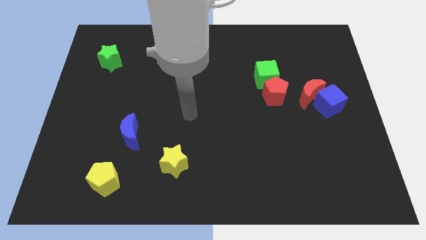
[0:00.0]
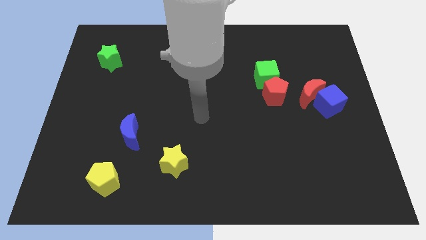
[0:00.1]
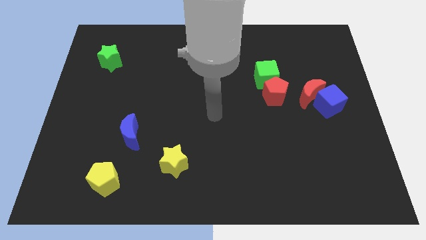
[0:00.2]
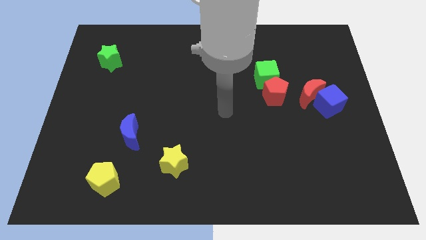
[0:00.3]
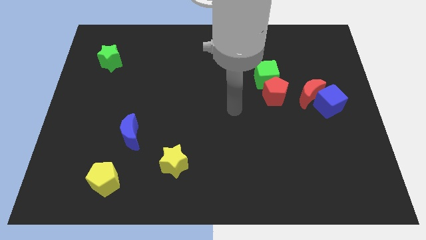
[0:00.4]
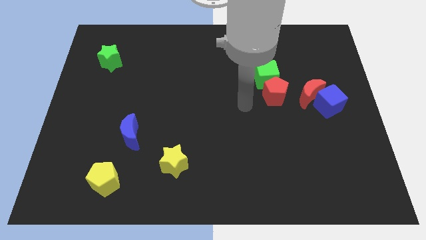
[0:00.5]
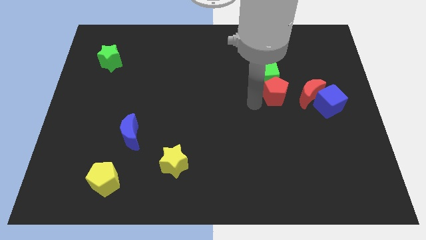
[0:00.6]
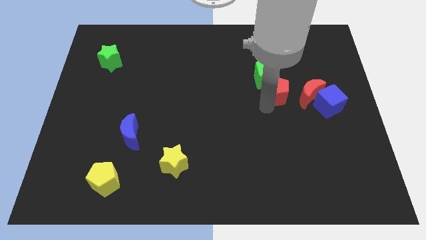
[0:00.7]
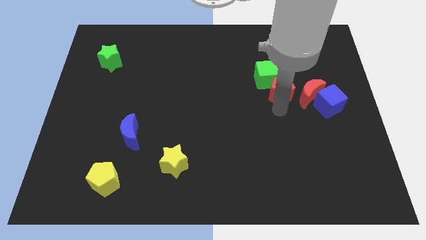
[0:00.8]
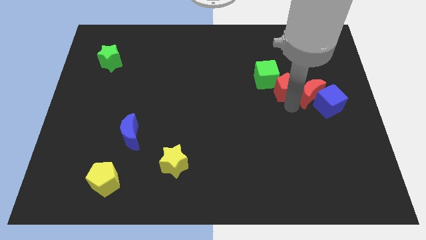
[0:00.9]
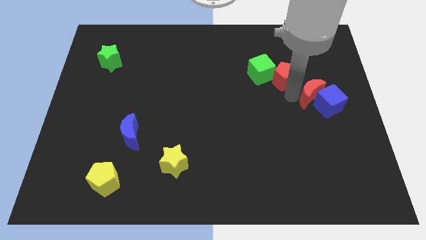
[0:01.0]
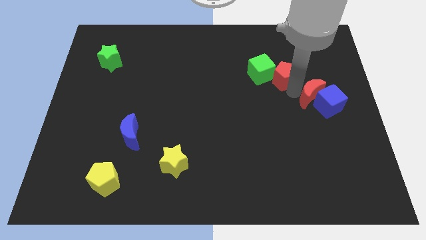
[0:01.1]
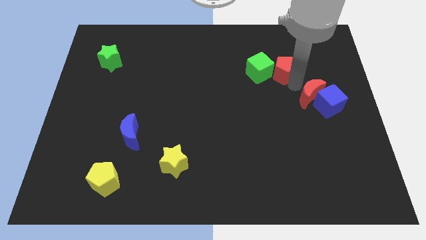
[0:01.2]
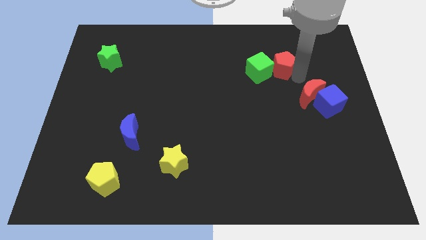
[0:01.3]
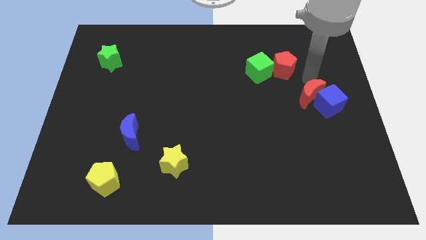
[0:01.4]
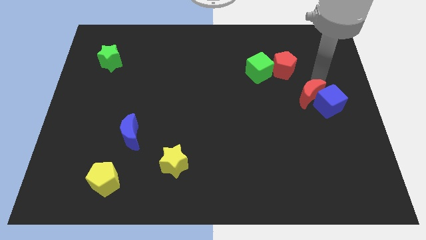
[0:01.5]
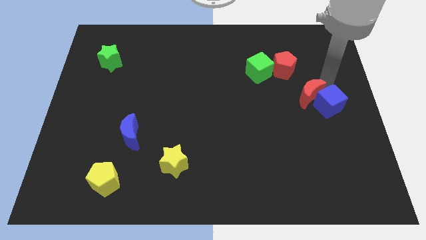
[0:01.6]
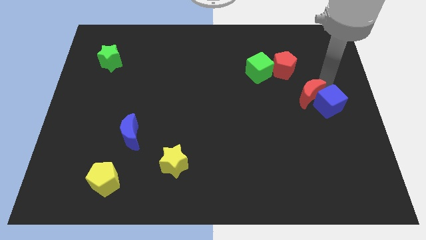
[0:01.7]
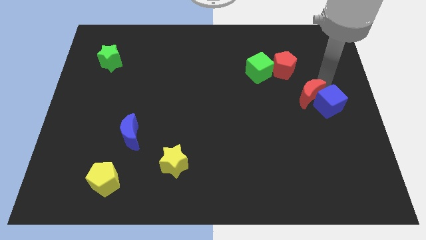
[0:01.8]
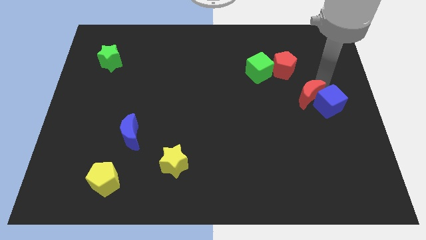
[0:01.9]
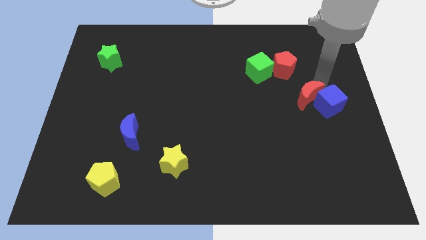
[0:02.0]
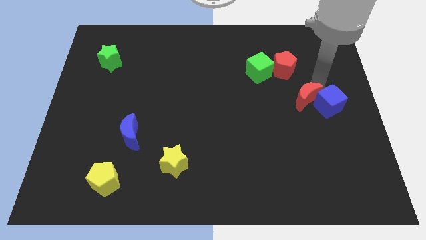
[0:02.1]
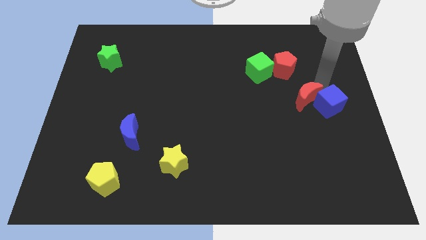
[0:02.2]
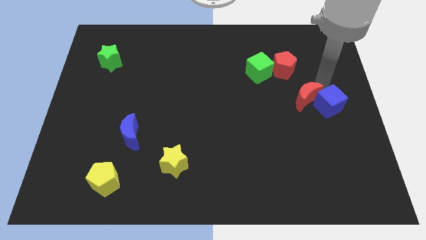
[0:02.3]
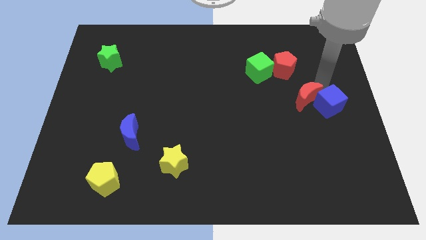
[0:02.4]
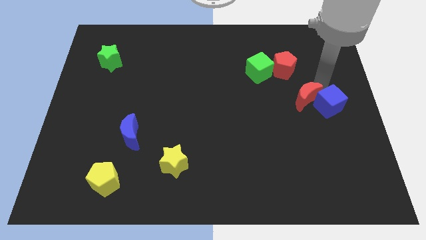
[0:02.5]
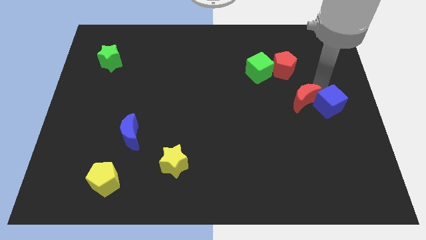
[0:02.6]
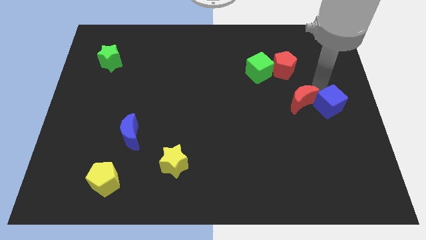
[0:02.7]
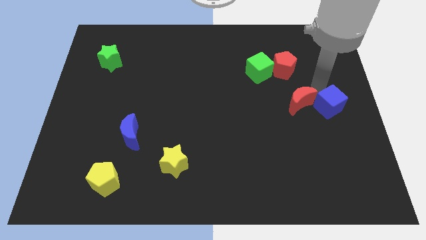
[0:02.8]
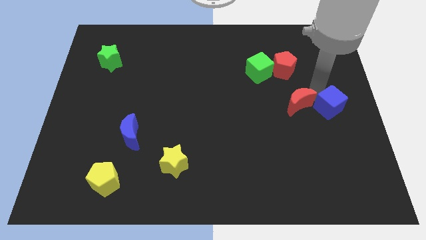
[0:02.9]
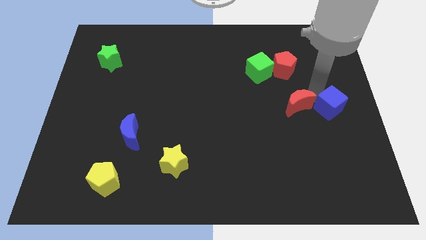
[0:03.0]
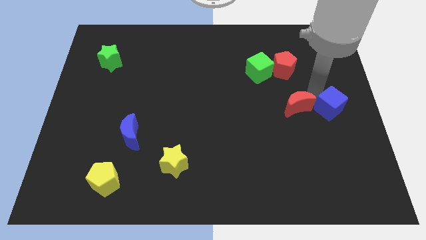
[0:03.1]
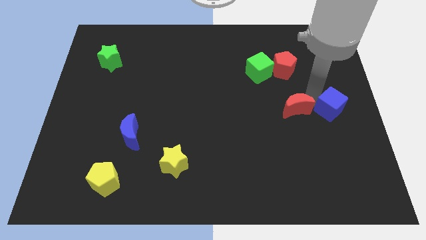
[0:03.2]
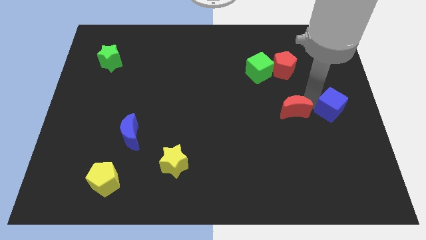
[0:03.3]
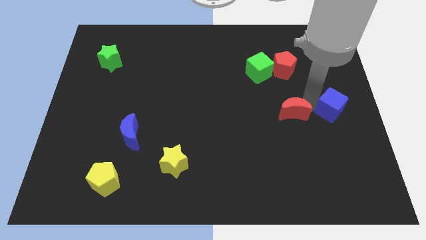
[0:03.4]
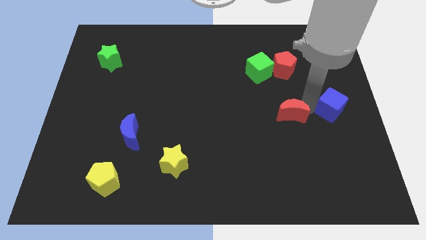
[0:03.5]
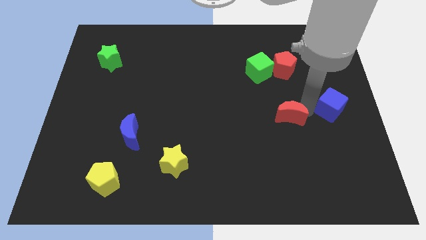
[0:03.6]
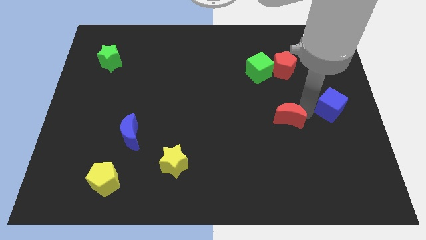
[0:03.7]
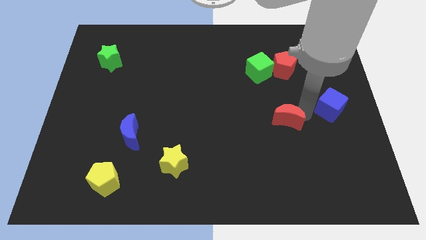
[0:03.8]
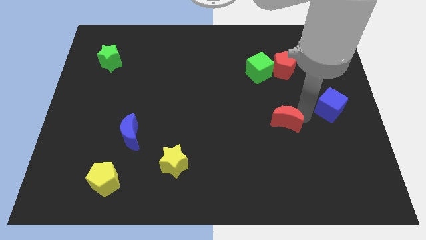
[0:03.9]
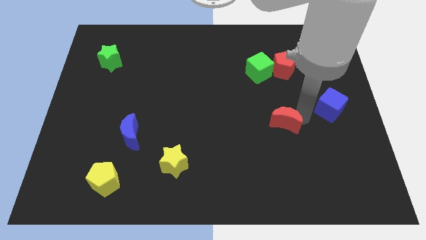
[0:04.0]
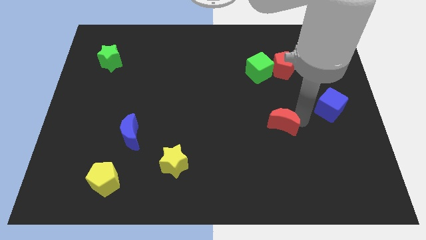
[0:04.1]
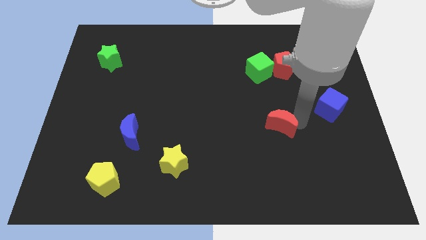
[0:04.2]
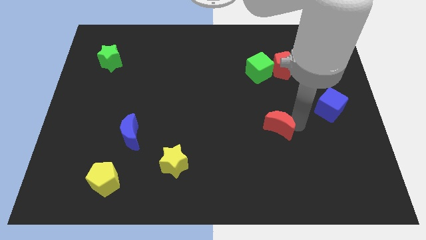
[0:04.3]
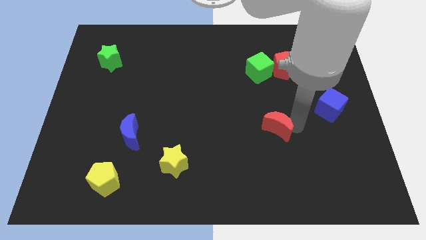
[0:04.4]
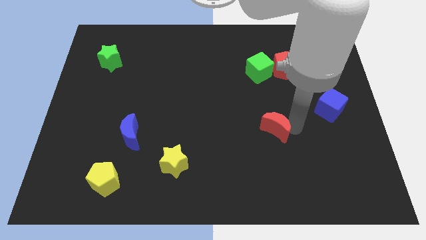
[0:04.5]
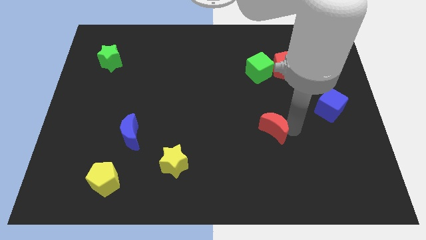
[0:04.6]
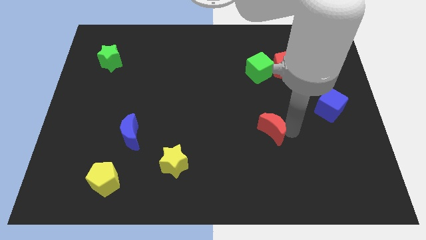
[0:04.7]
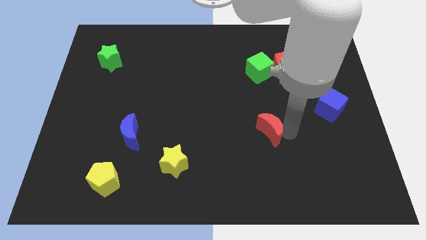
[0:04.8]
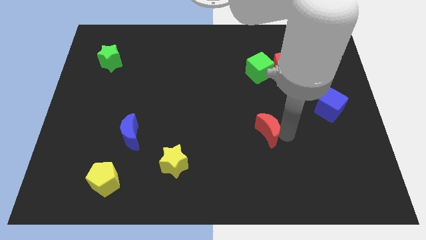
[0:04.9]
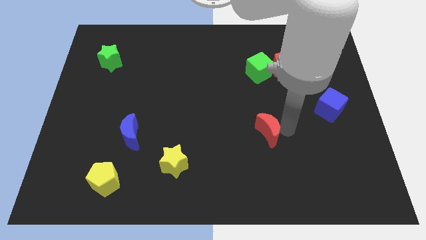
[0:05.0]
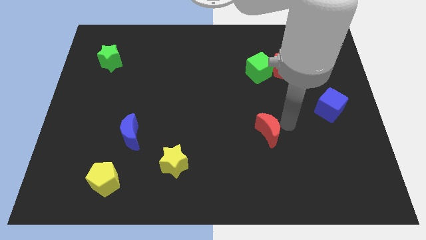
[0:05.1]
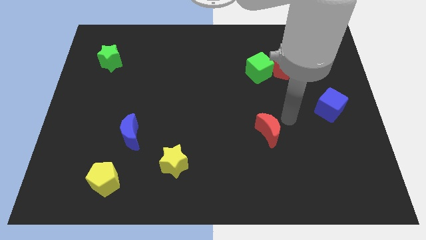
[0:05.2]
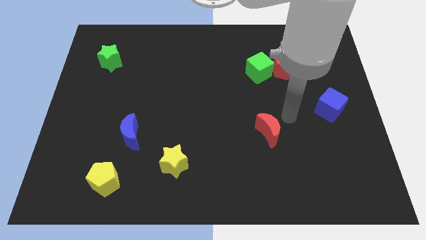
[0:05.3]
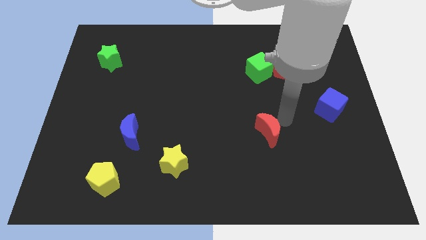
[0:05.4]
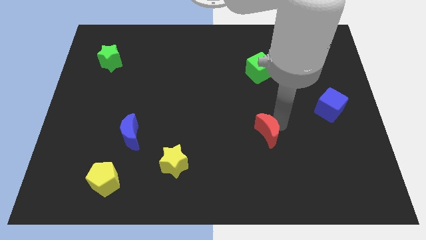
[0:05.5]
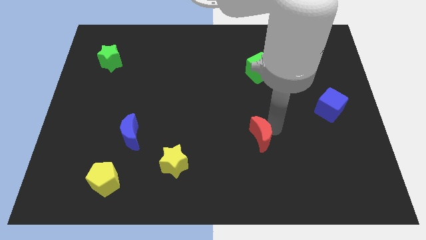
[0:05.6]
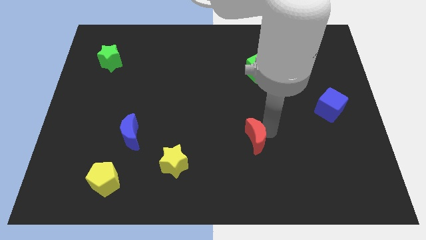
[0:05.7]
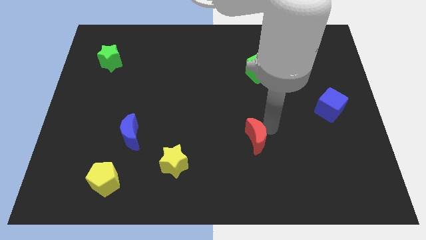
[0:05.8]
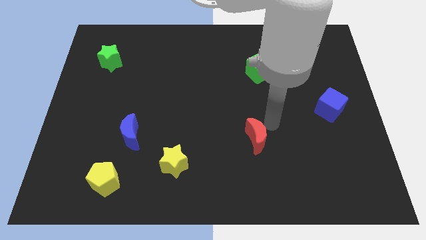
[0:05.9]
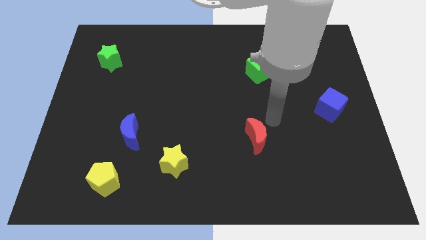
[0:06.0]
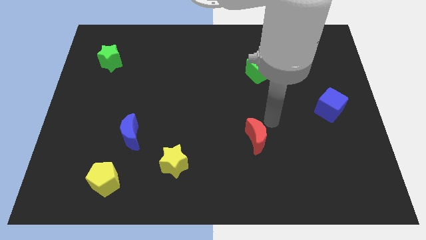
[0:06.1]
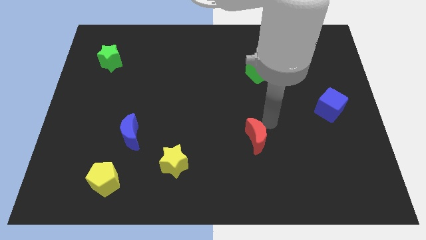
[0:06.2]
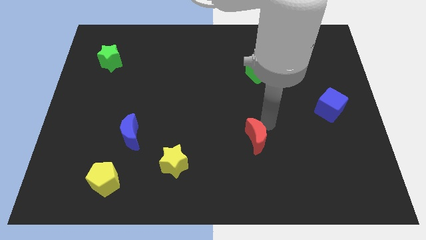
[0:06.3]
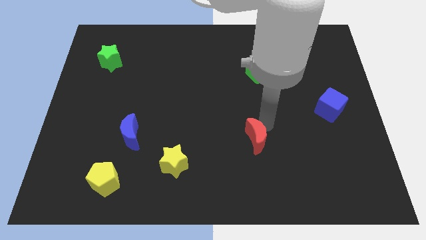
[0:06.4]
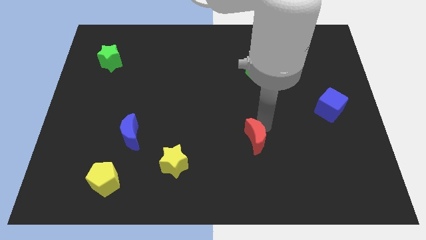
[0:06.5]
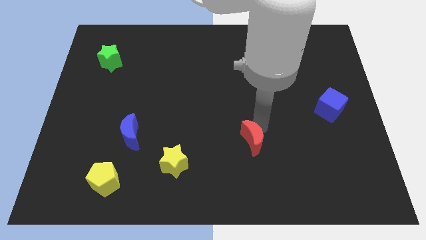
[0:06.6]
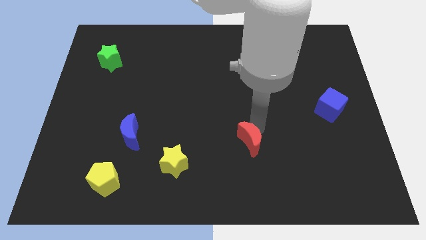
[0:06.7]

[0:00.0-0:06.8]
push the red moon down and to the left diagonally

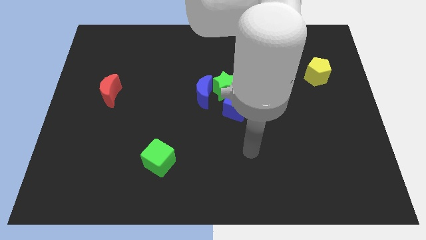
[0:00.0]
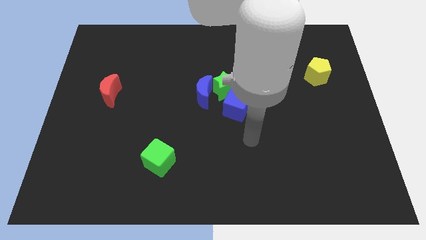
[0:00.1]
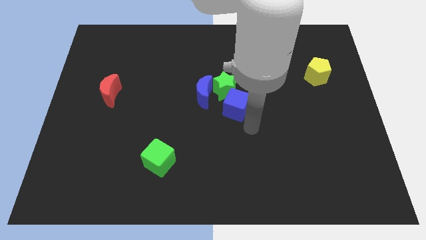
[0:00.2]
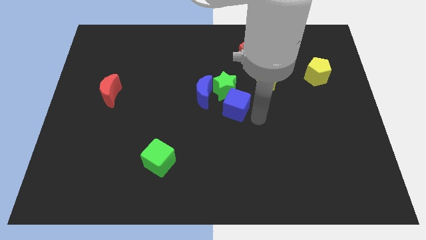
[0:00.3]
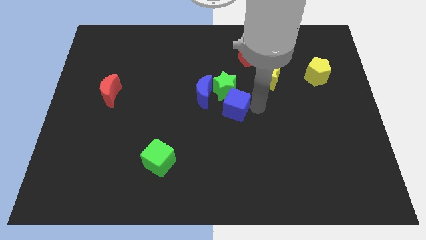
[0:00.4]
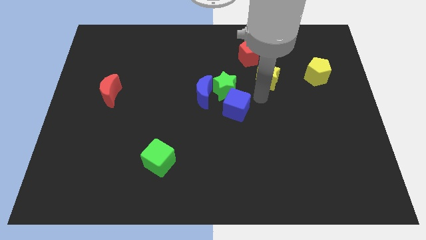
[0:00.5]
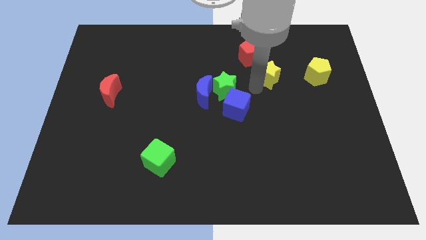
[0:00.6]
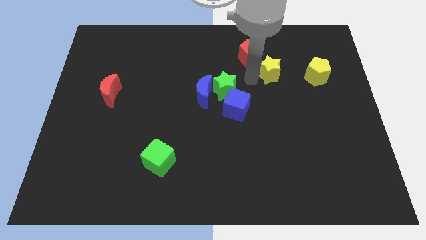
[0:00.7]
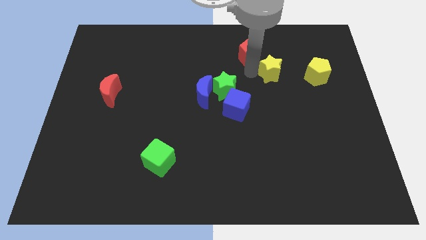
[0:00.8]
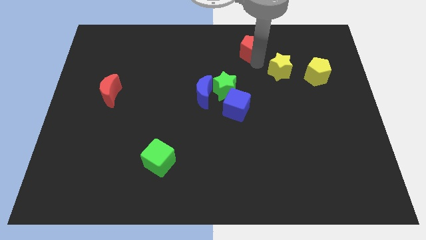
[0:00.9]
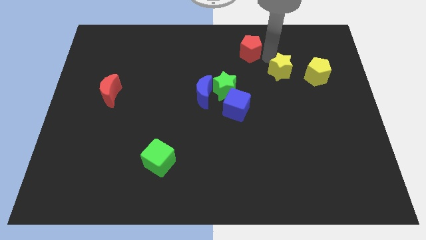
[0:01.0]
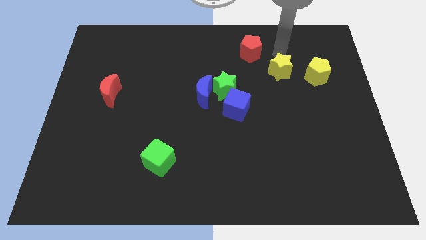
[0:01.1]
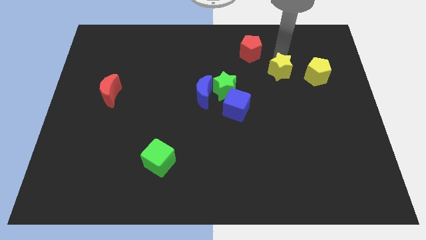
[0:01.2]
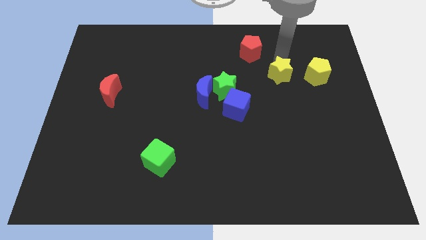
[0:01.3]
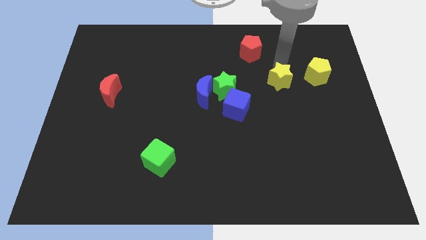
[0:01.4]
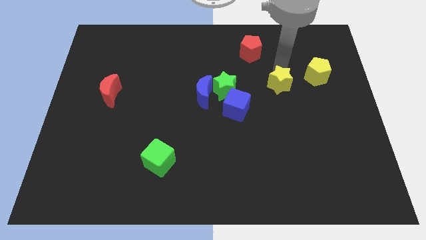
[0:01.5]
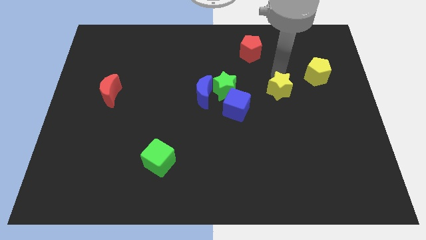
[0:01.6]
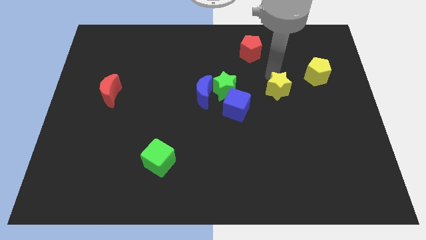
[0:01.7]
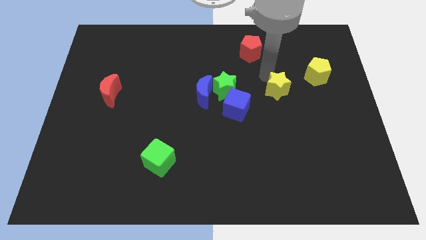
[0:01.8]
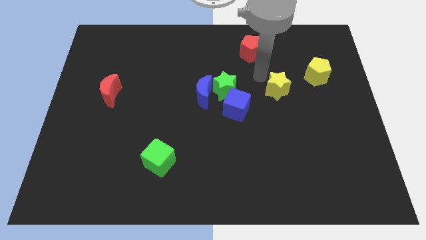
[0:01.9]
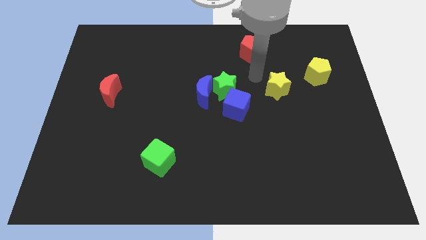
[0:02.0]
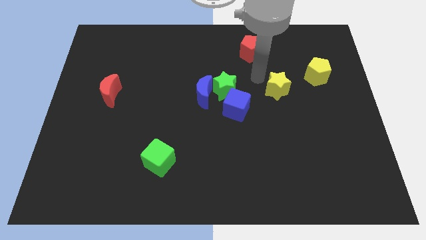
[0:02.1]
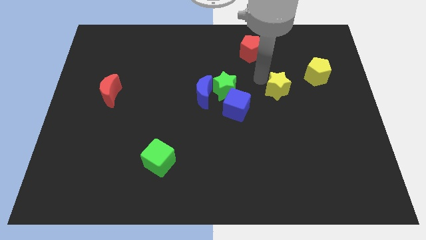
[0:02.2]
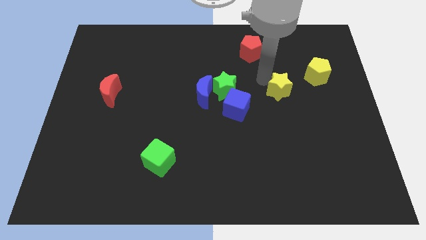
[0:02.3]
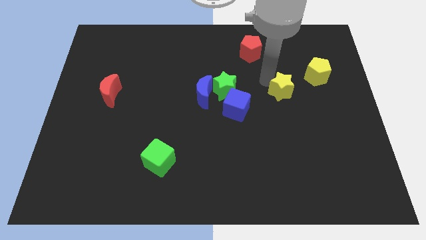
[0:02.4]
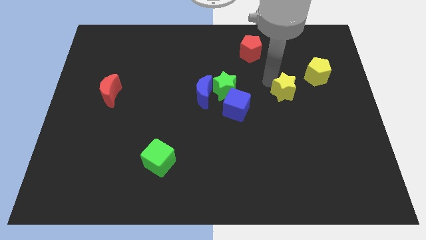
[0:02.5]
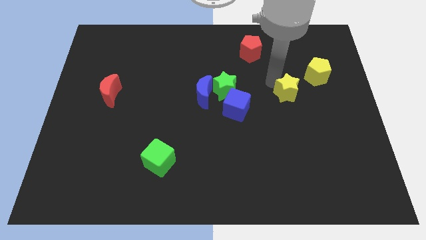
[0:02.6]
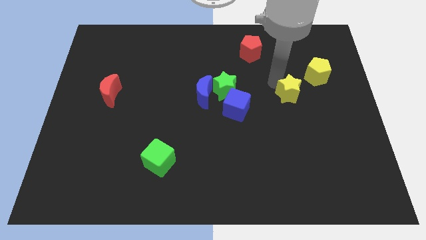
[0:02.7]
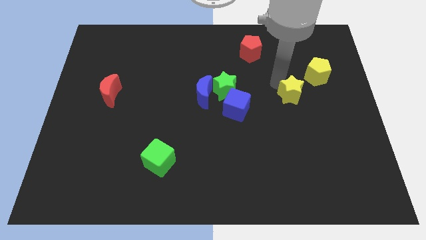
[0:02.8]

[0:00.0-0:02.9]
push the yellow star a little downwards and to the right
